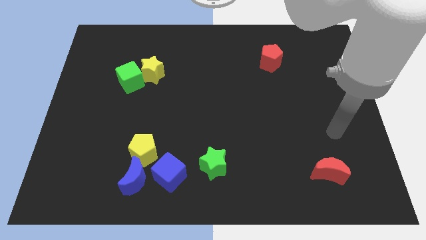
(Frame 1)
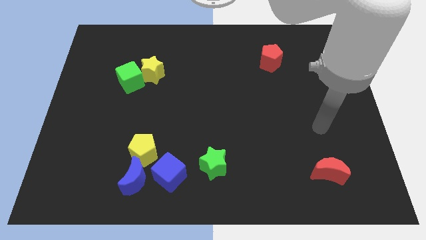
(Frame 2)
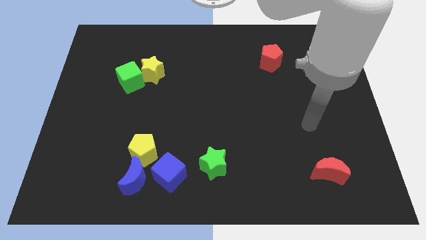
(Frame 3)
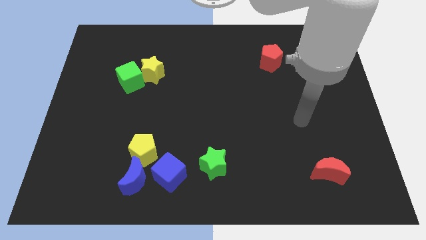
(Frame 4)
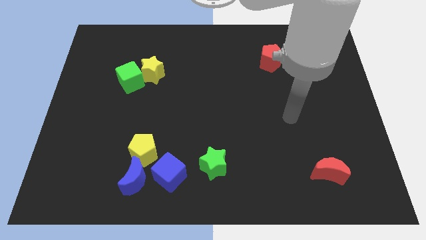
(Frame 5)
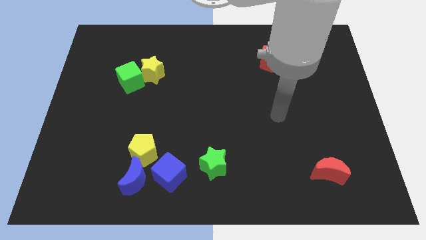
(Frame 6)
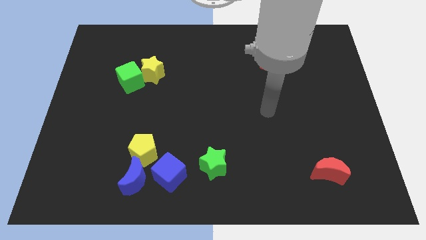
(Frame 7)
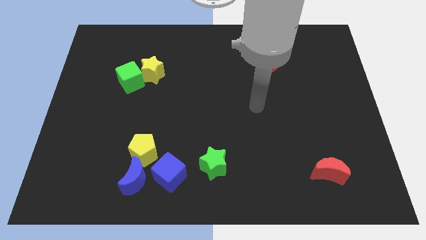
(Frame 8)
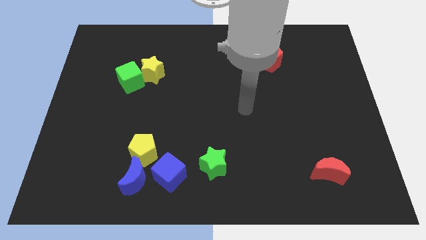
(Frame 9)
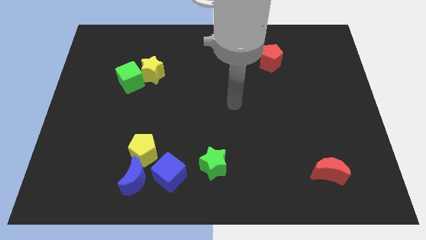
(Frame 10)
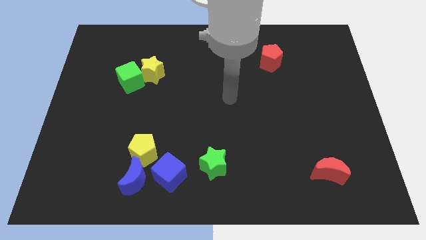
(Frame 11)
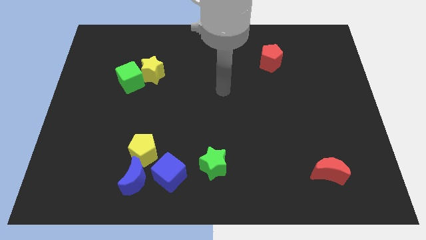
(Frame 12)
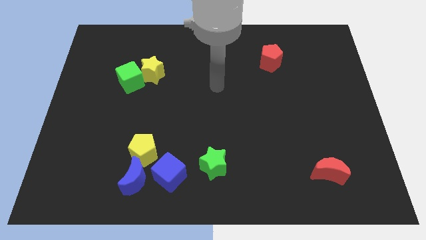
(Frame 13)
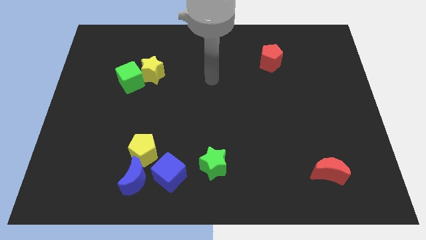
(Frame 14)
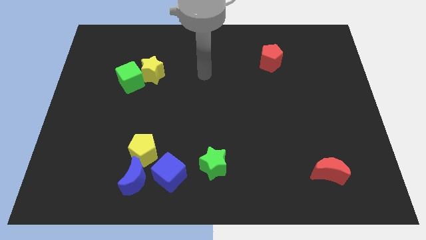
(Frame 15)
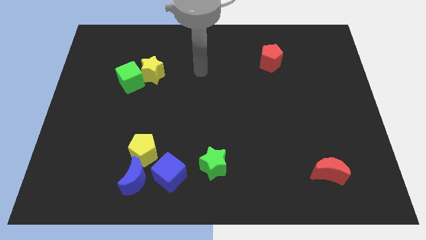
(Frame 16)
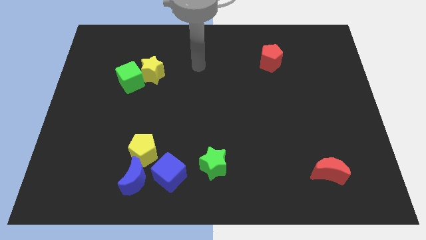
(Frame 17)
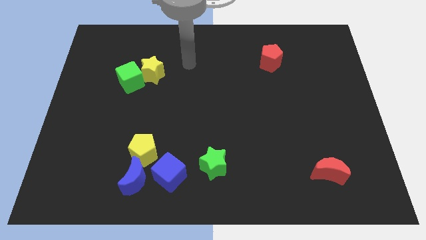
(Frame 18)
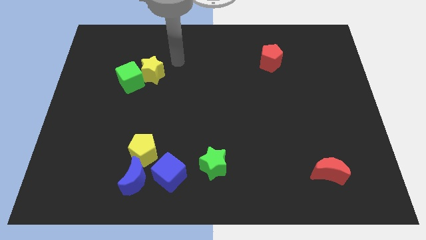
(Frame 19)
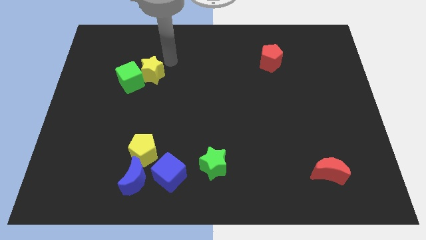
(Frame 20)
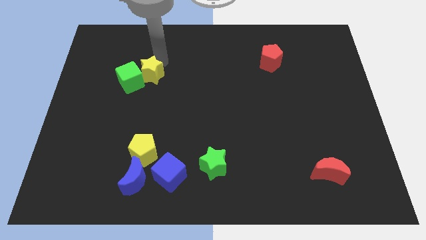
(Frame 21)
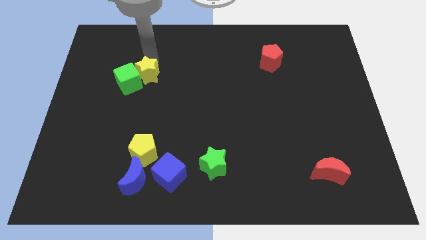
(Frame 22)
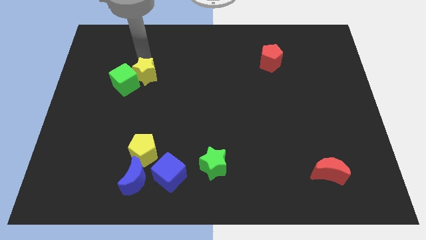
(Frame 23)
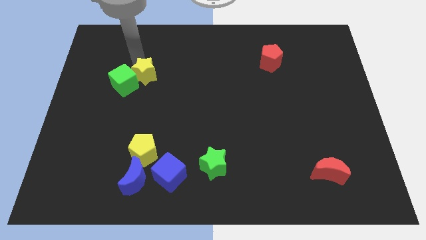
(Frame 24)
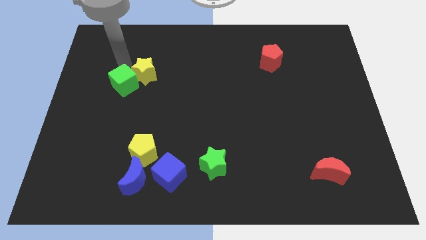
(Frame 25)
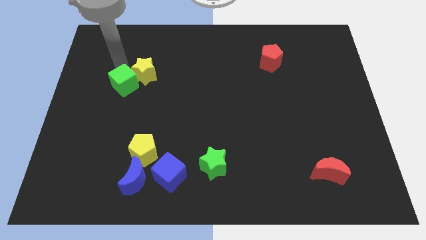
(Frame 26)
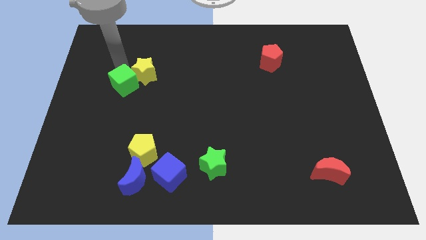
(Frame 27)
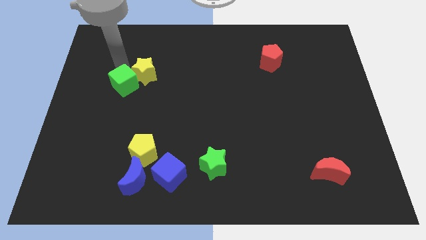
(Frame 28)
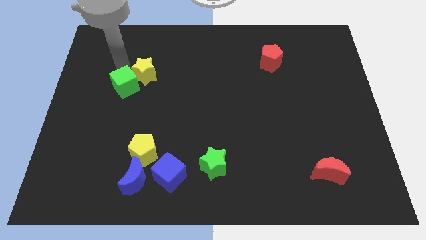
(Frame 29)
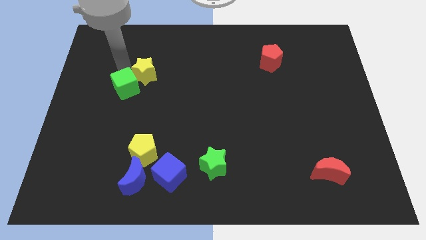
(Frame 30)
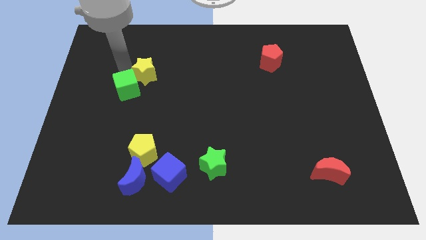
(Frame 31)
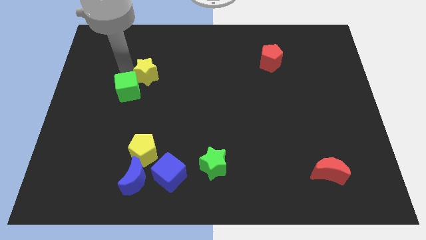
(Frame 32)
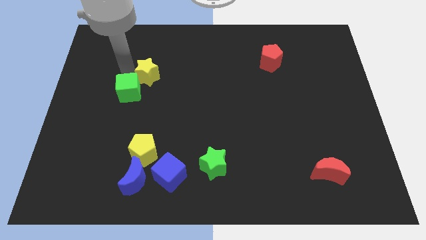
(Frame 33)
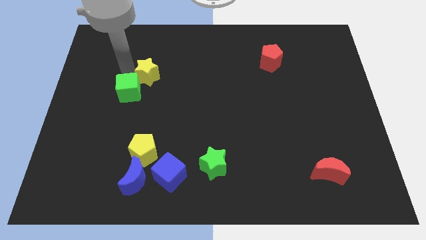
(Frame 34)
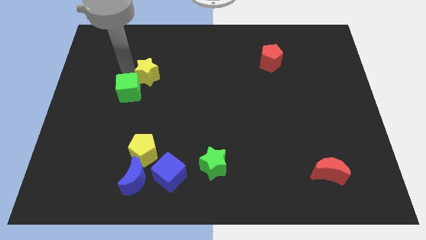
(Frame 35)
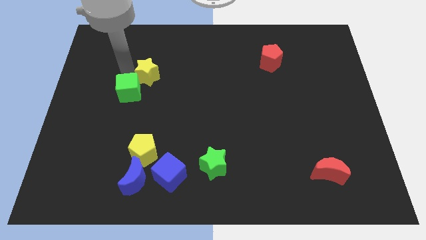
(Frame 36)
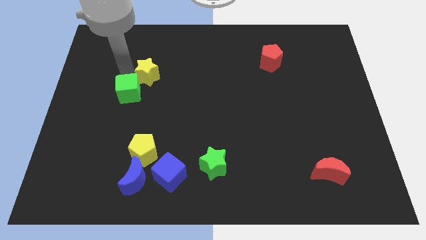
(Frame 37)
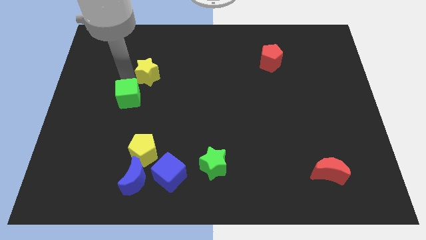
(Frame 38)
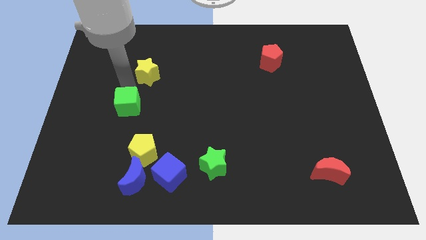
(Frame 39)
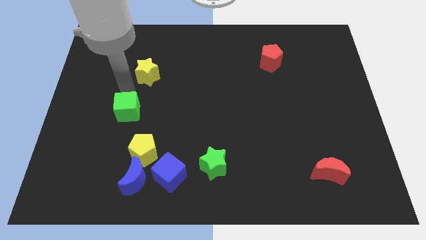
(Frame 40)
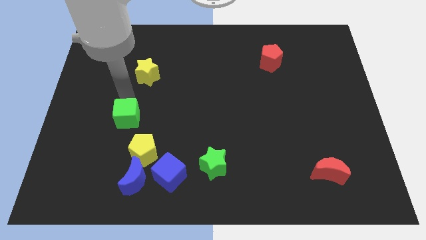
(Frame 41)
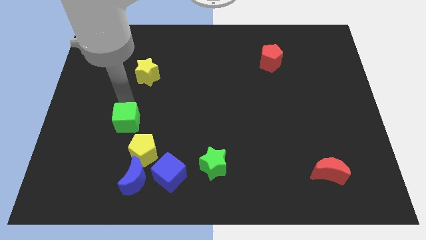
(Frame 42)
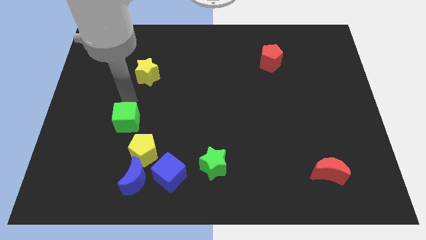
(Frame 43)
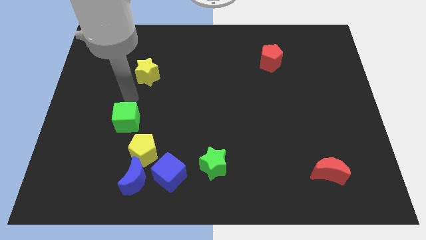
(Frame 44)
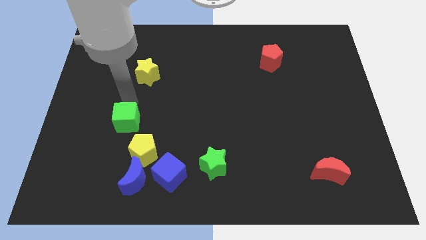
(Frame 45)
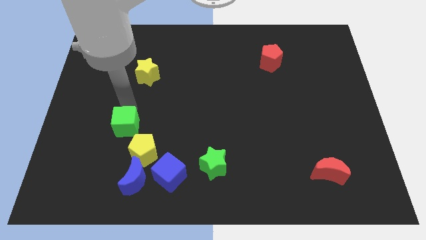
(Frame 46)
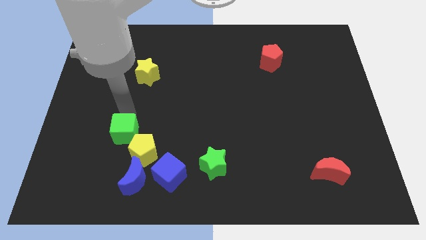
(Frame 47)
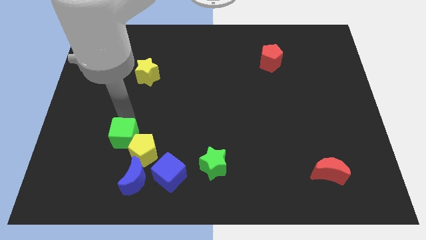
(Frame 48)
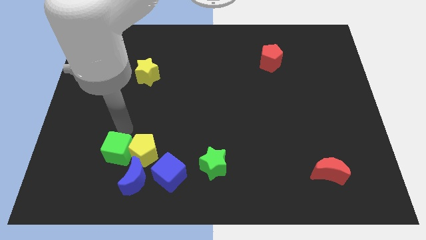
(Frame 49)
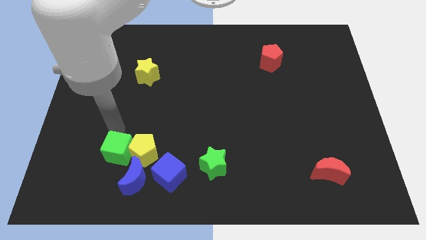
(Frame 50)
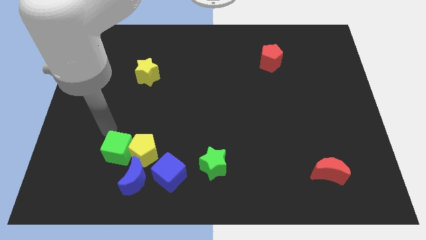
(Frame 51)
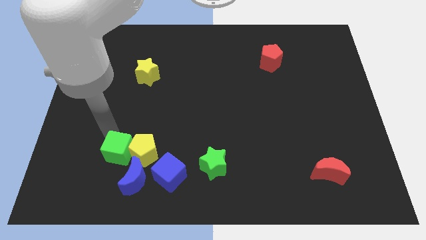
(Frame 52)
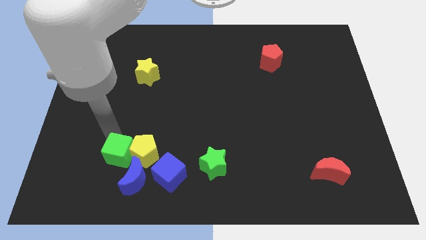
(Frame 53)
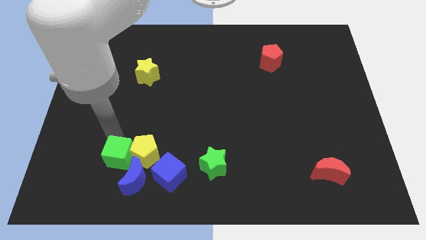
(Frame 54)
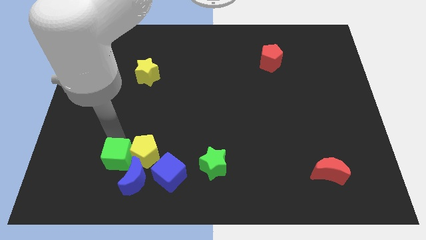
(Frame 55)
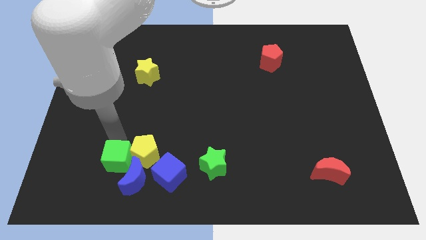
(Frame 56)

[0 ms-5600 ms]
push the green cube next to the blue moon

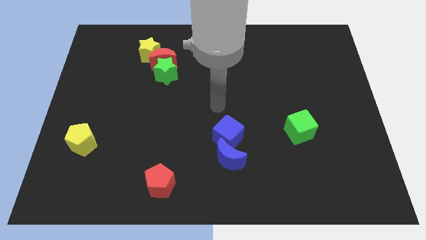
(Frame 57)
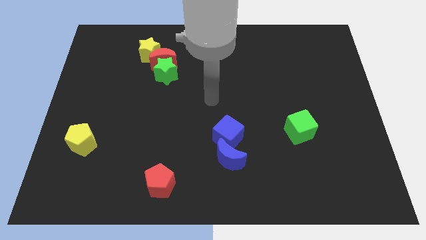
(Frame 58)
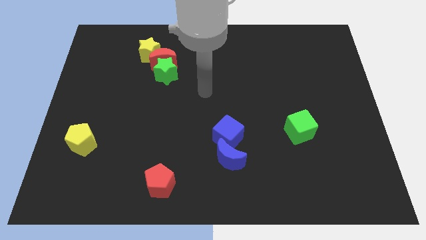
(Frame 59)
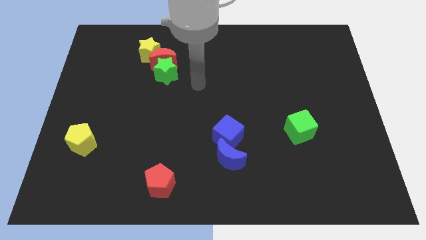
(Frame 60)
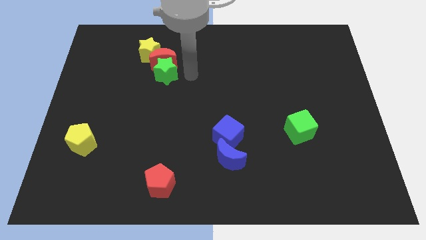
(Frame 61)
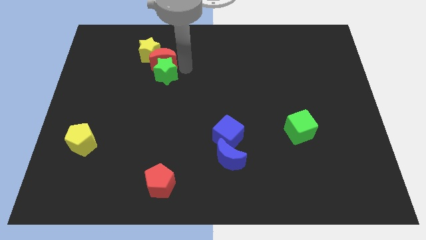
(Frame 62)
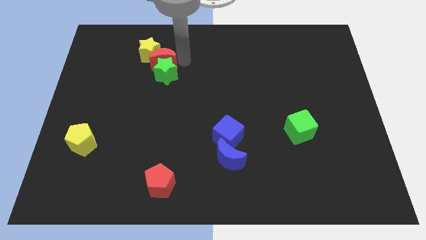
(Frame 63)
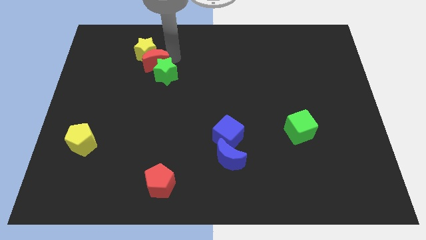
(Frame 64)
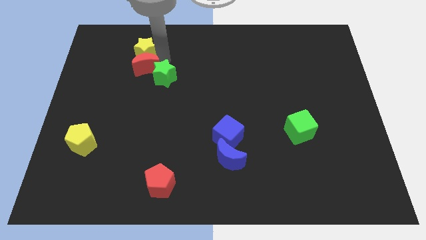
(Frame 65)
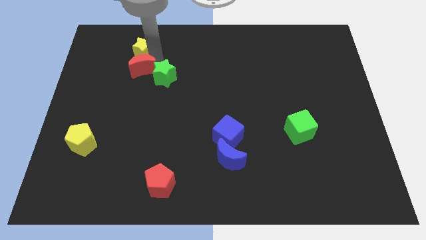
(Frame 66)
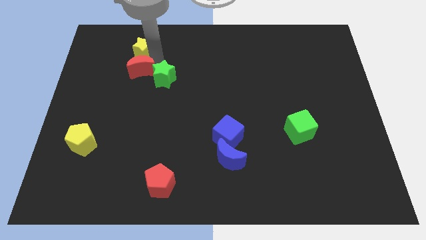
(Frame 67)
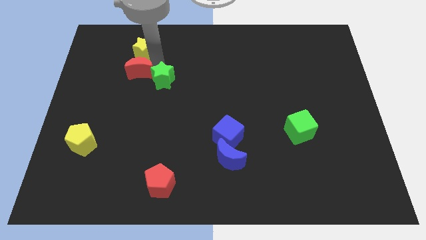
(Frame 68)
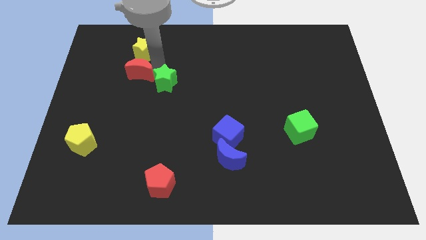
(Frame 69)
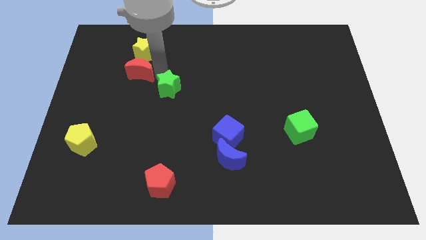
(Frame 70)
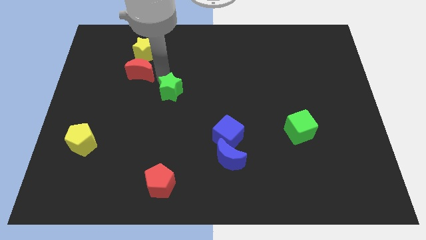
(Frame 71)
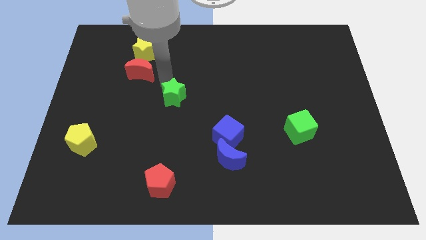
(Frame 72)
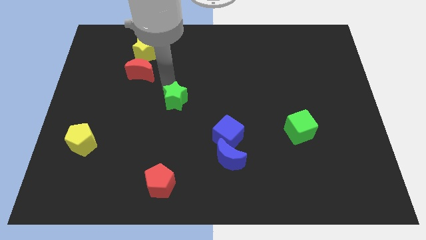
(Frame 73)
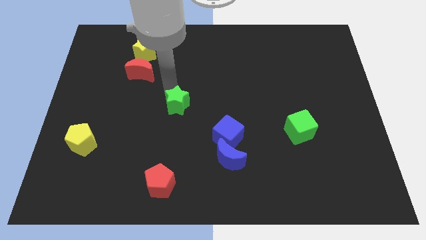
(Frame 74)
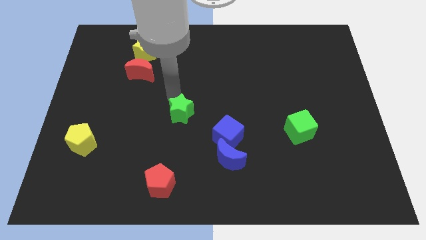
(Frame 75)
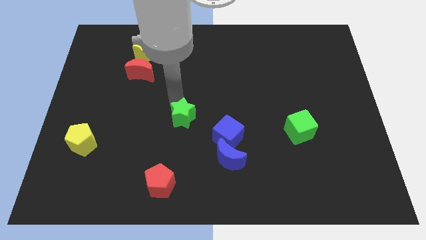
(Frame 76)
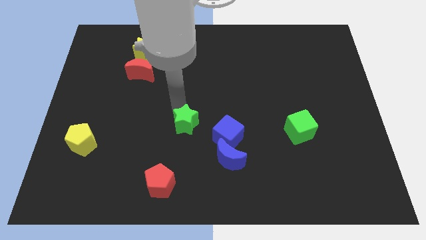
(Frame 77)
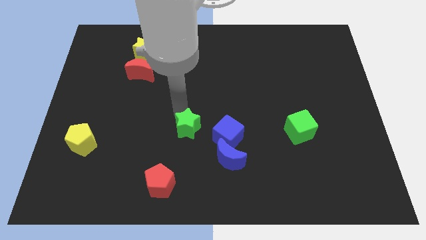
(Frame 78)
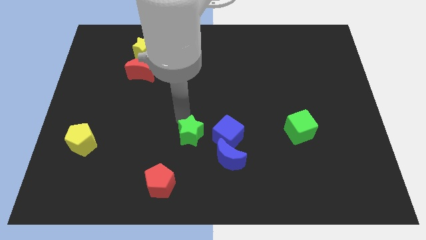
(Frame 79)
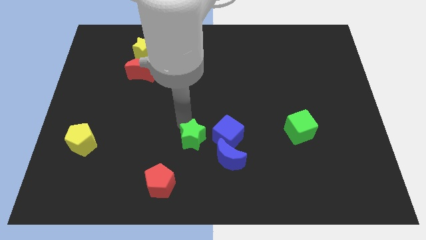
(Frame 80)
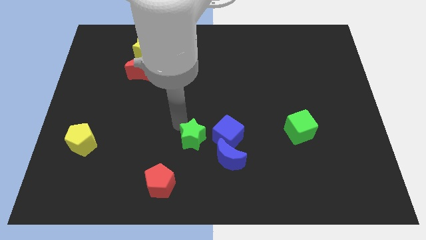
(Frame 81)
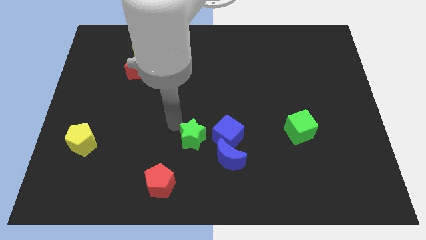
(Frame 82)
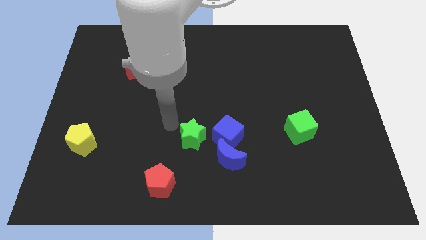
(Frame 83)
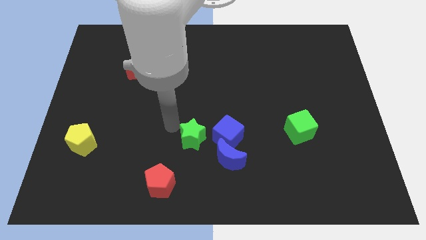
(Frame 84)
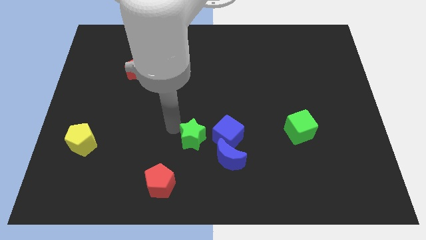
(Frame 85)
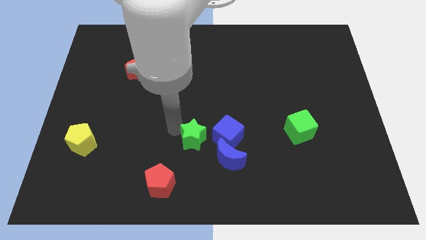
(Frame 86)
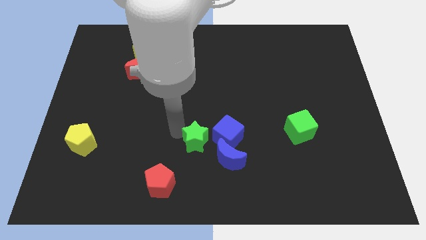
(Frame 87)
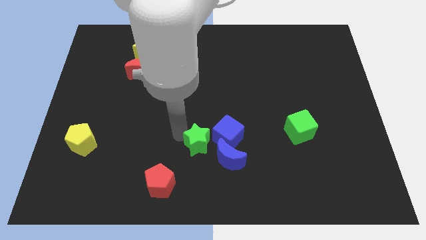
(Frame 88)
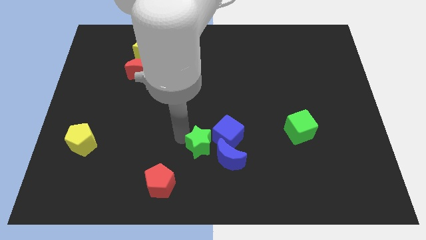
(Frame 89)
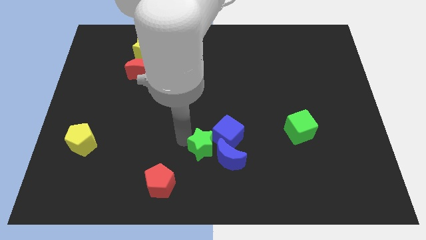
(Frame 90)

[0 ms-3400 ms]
push the green star towards the blue moon
